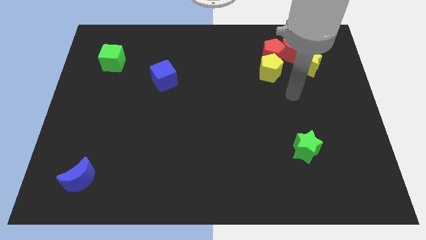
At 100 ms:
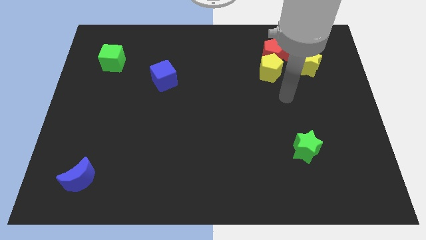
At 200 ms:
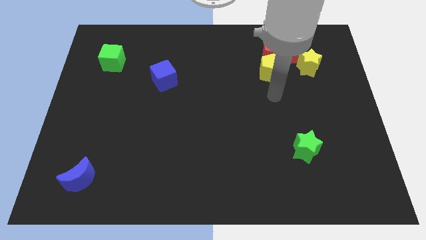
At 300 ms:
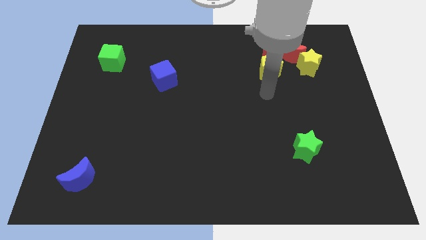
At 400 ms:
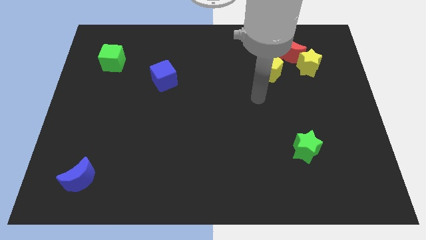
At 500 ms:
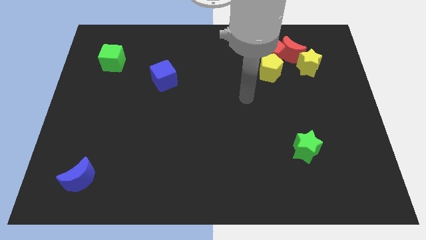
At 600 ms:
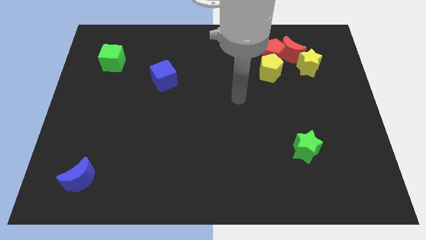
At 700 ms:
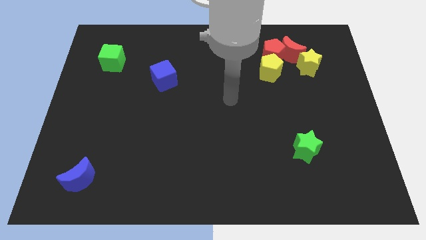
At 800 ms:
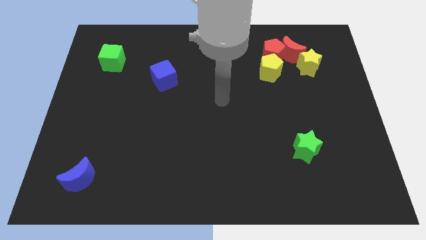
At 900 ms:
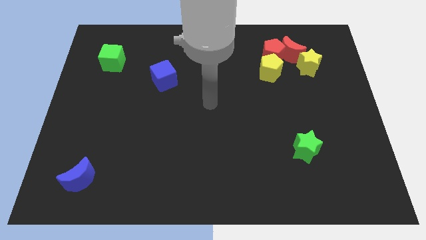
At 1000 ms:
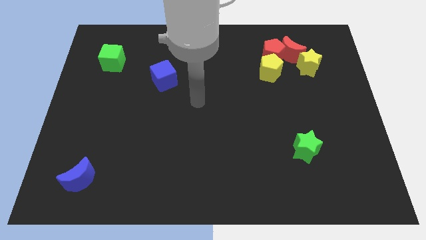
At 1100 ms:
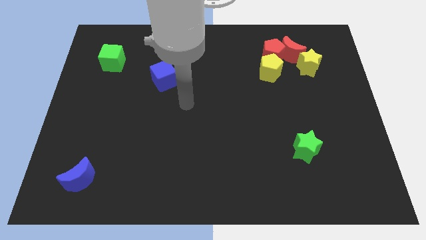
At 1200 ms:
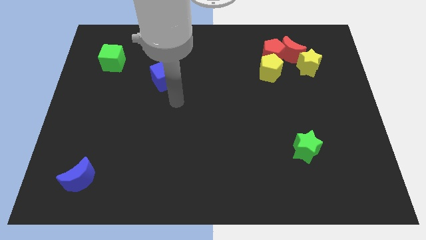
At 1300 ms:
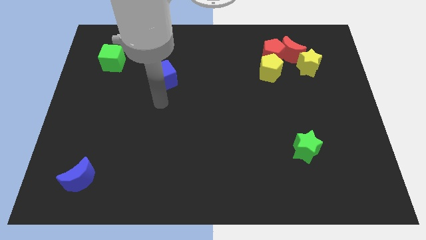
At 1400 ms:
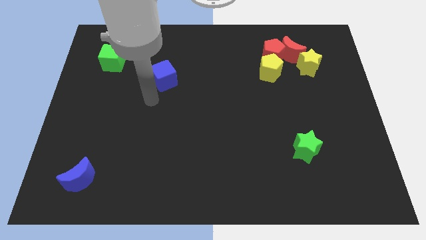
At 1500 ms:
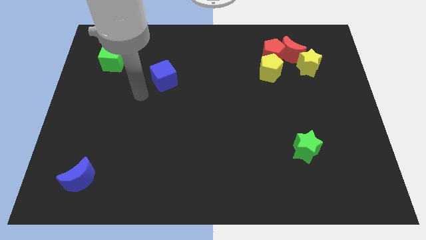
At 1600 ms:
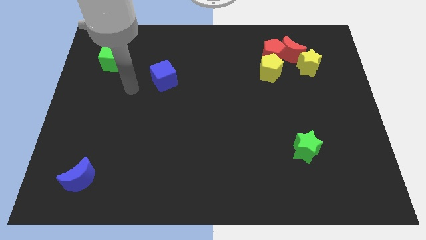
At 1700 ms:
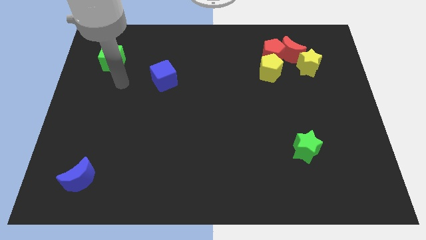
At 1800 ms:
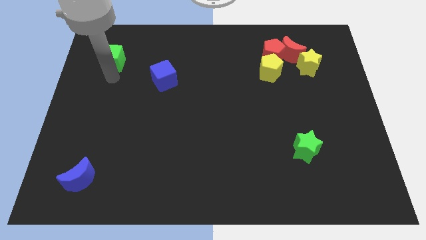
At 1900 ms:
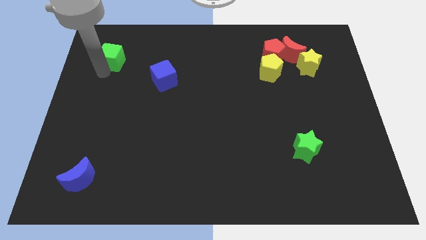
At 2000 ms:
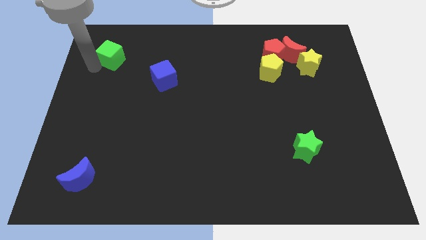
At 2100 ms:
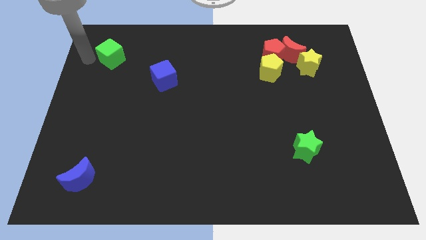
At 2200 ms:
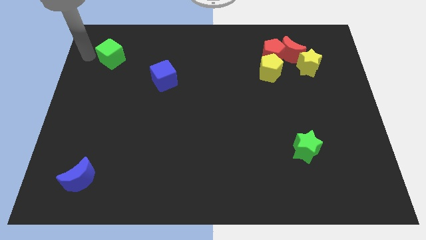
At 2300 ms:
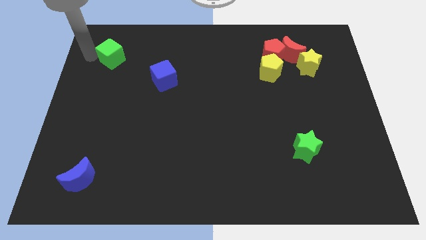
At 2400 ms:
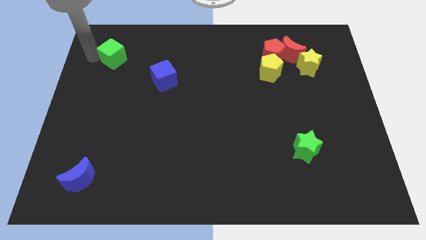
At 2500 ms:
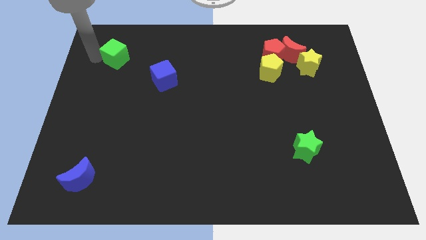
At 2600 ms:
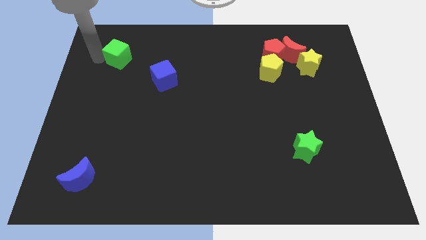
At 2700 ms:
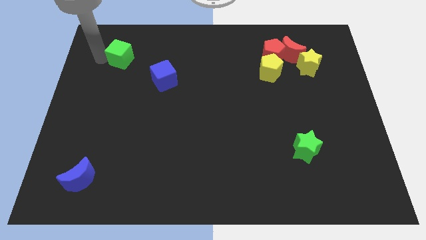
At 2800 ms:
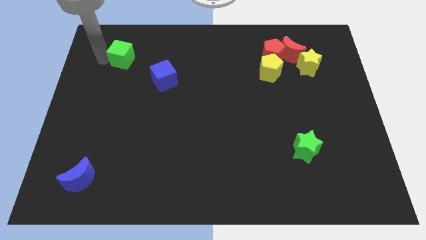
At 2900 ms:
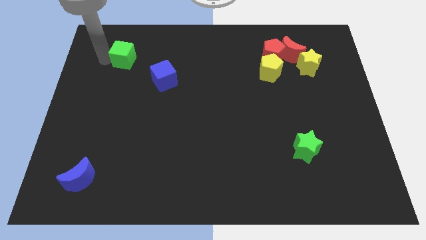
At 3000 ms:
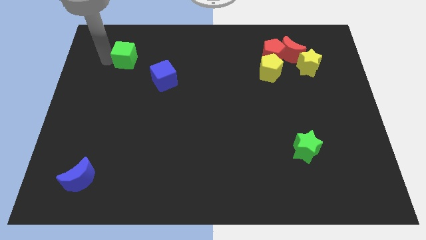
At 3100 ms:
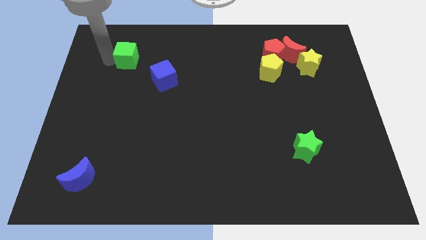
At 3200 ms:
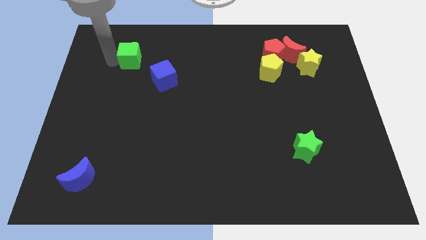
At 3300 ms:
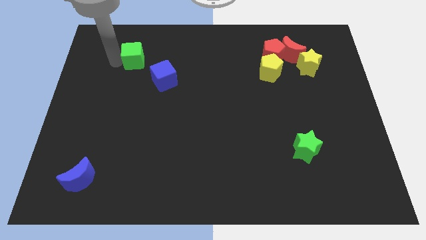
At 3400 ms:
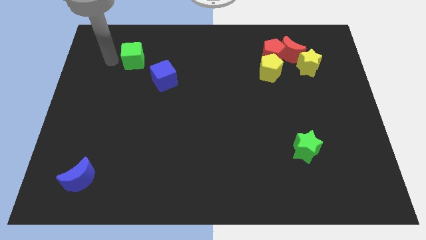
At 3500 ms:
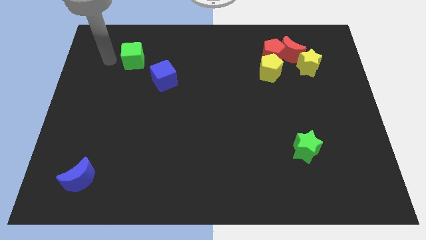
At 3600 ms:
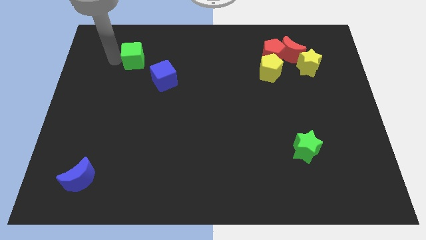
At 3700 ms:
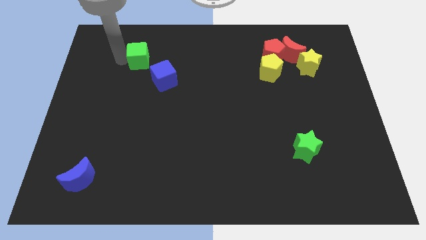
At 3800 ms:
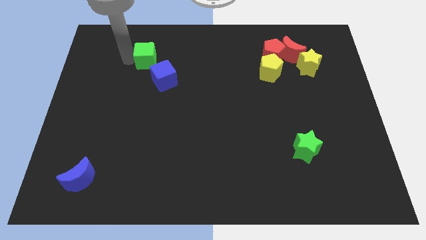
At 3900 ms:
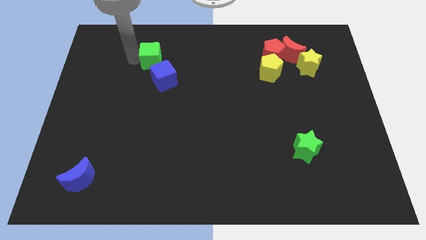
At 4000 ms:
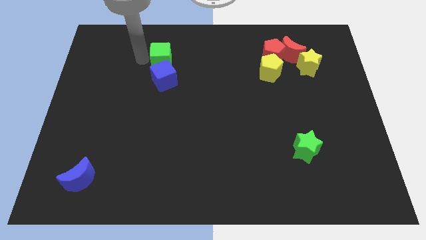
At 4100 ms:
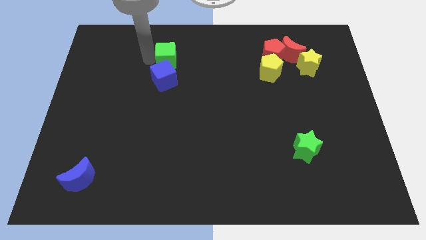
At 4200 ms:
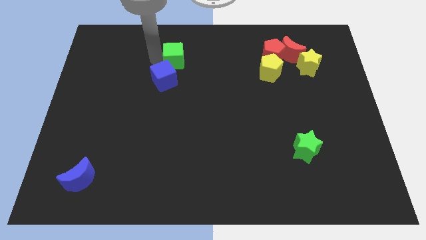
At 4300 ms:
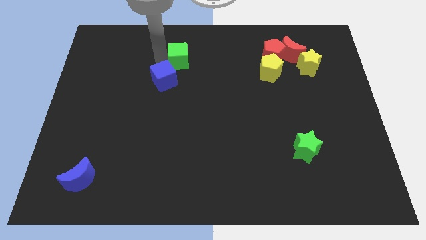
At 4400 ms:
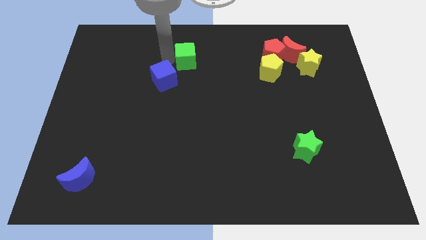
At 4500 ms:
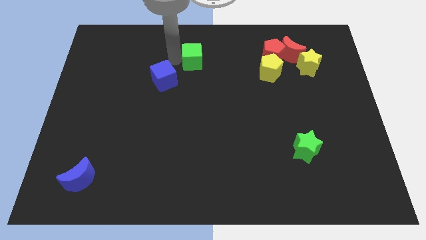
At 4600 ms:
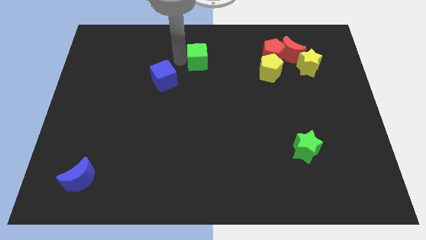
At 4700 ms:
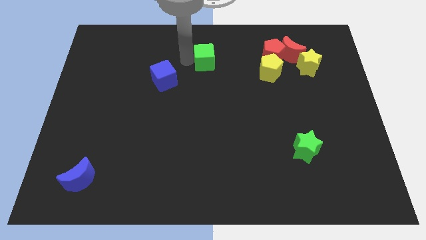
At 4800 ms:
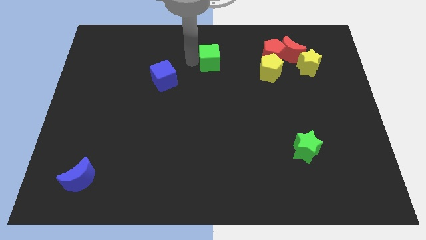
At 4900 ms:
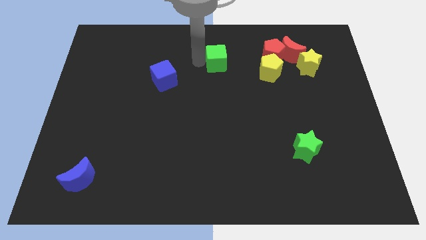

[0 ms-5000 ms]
slide the green cube to the left side of the red pentagon

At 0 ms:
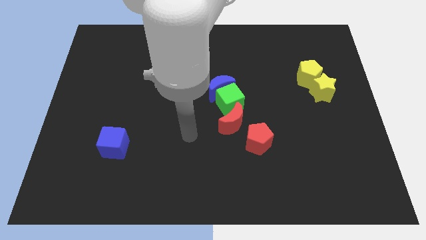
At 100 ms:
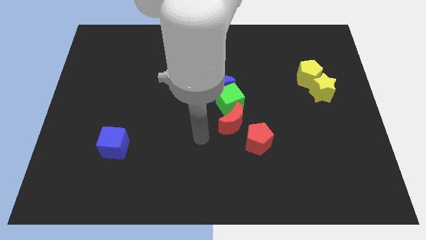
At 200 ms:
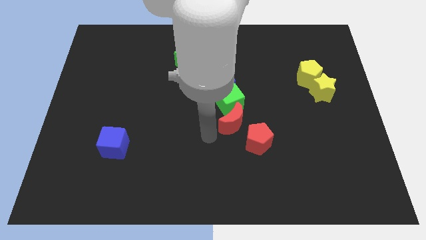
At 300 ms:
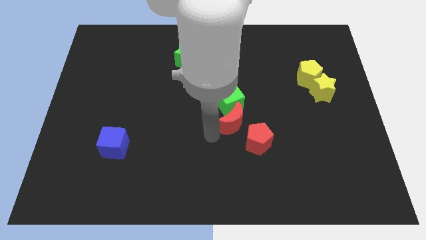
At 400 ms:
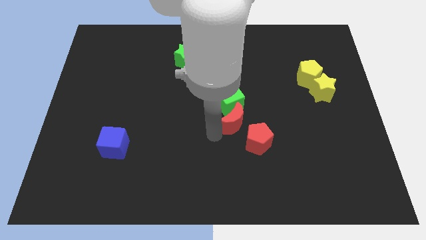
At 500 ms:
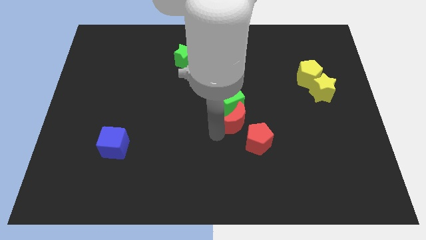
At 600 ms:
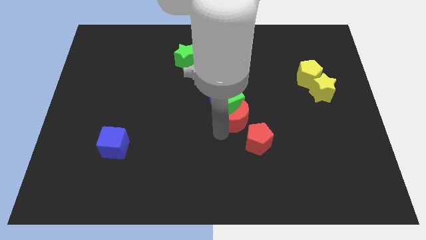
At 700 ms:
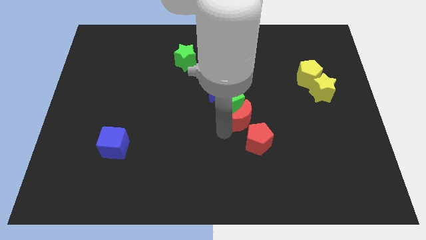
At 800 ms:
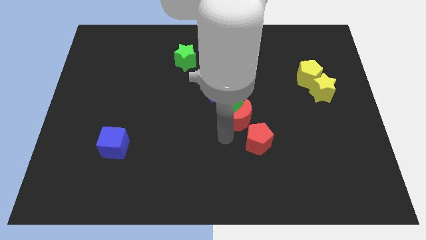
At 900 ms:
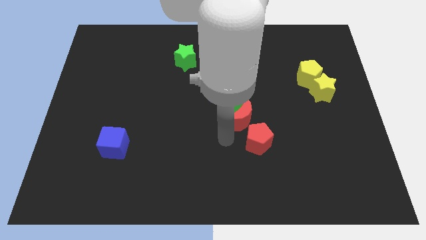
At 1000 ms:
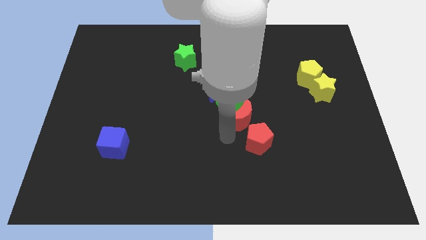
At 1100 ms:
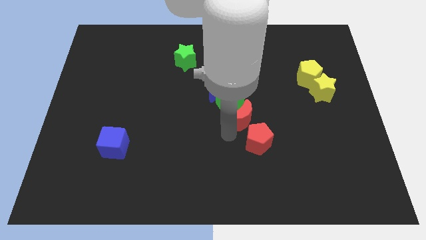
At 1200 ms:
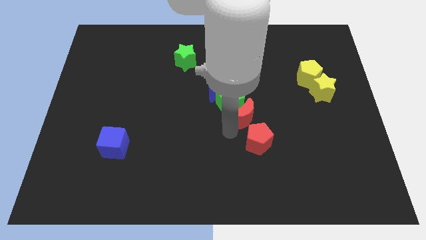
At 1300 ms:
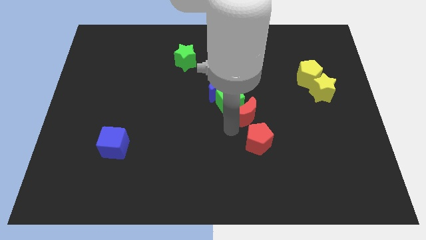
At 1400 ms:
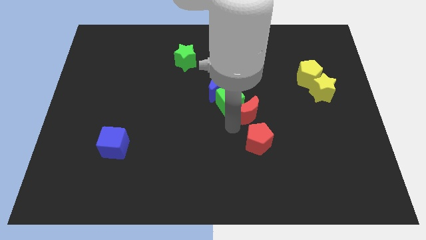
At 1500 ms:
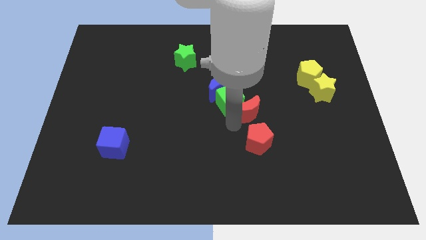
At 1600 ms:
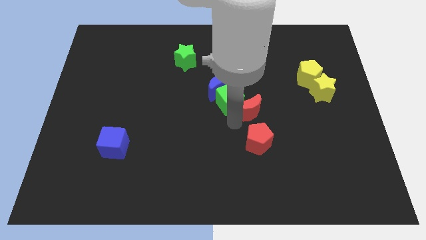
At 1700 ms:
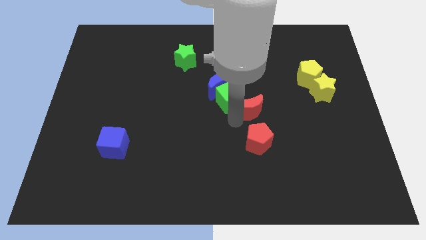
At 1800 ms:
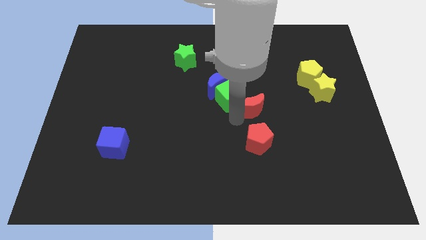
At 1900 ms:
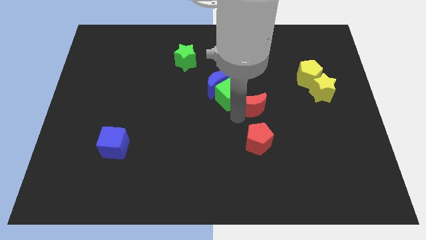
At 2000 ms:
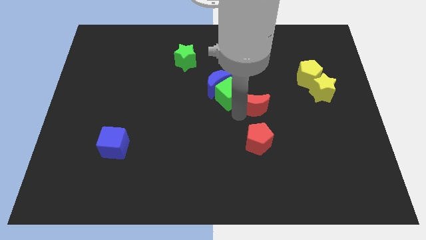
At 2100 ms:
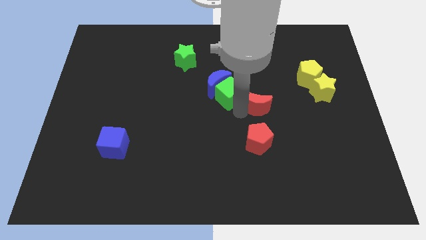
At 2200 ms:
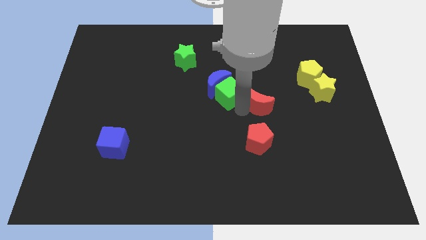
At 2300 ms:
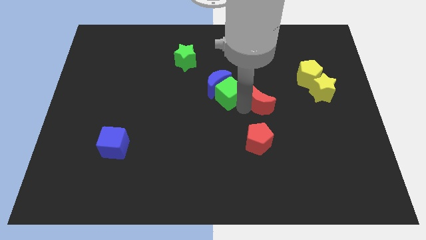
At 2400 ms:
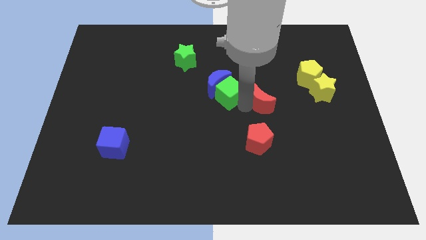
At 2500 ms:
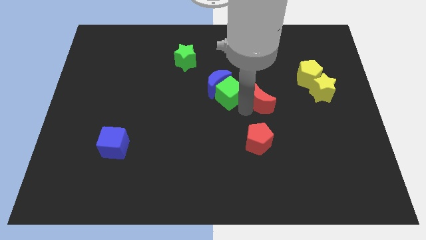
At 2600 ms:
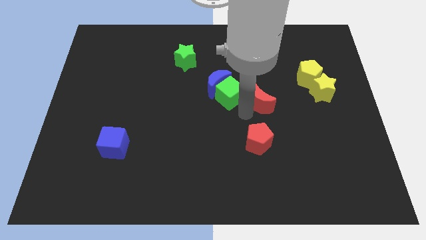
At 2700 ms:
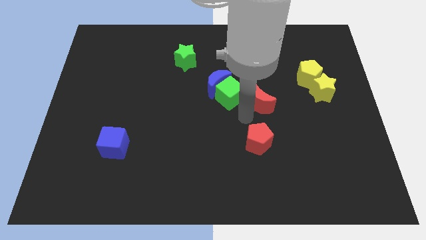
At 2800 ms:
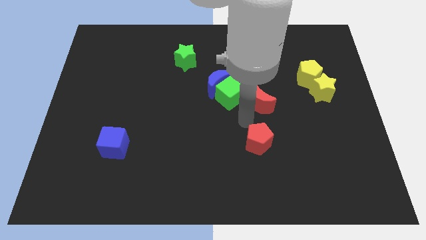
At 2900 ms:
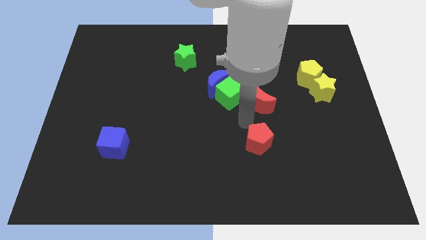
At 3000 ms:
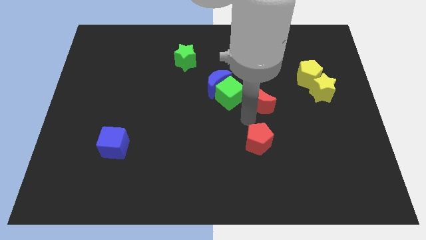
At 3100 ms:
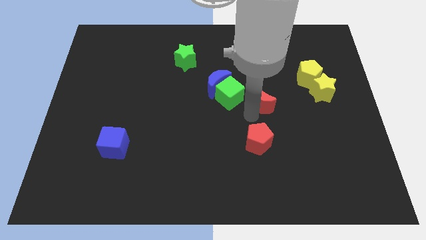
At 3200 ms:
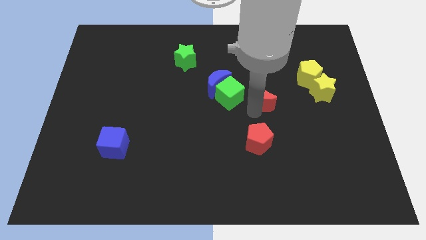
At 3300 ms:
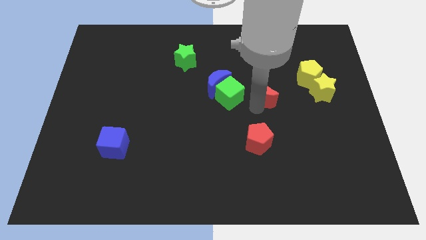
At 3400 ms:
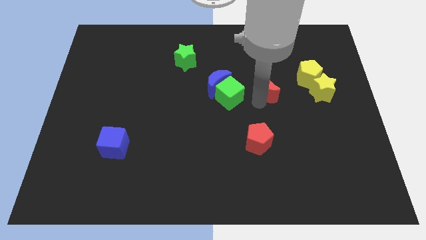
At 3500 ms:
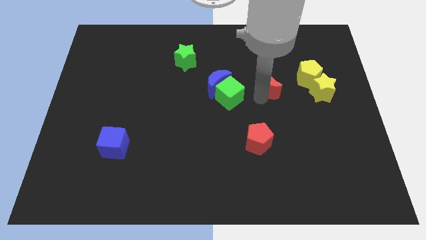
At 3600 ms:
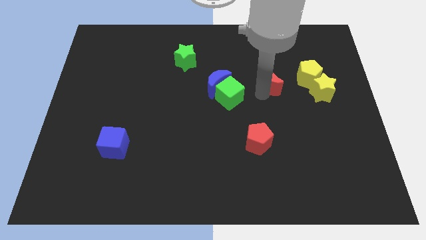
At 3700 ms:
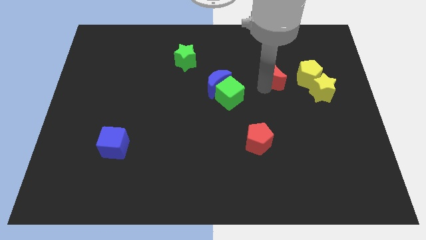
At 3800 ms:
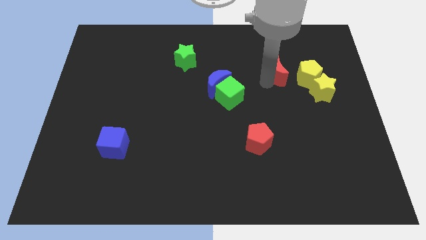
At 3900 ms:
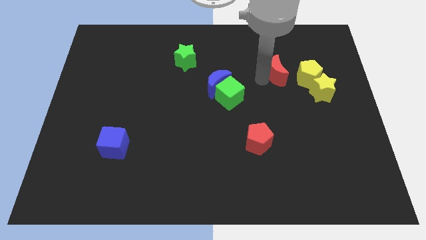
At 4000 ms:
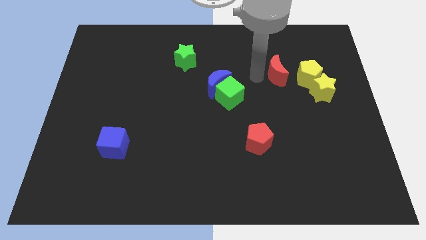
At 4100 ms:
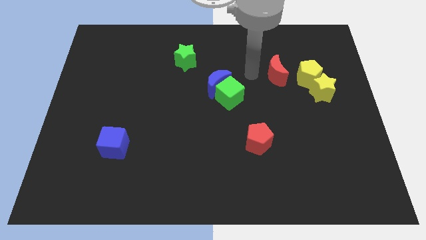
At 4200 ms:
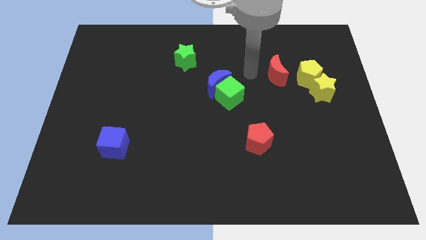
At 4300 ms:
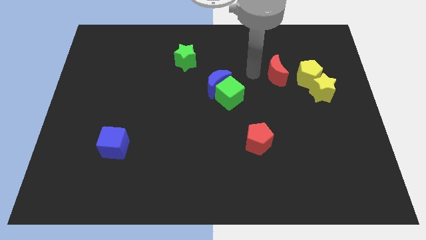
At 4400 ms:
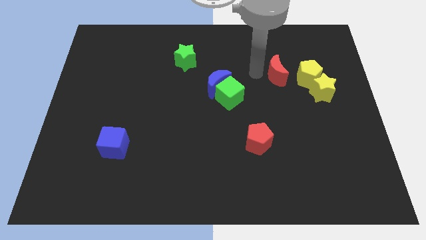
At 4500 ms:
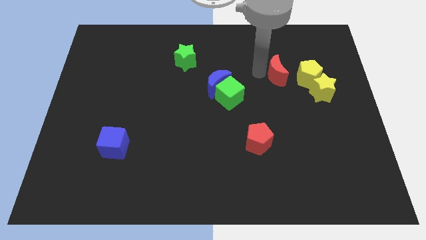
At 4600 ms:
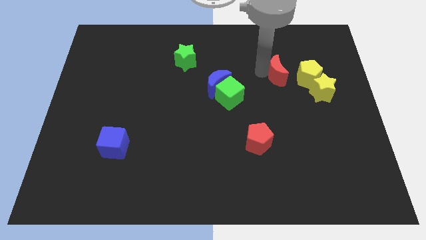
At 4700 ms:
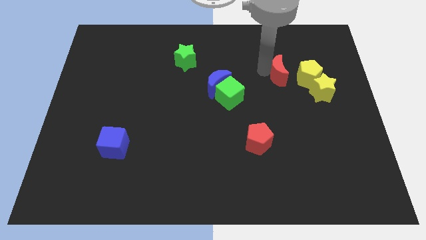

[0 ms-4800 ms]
move the red moon diagonally up and to the left of the yellow star
